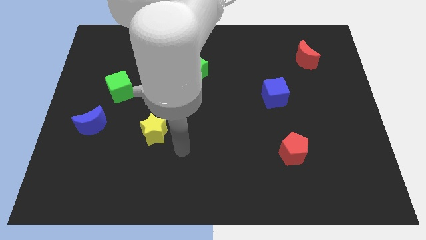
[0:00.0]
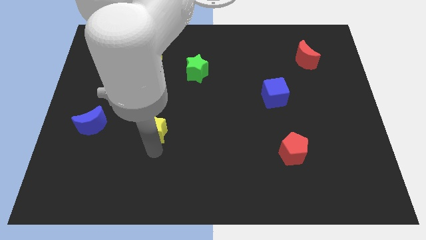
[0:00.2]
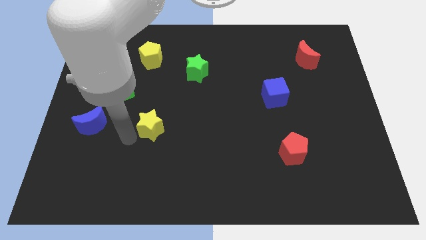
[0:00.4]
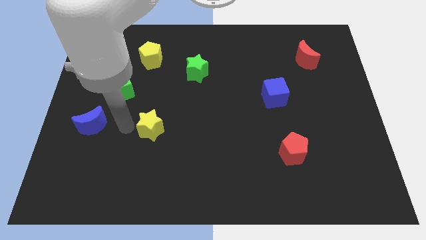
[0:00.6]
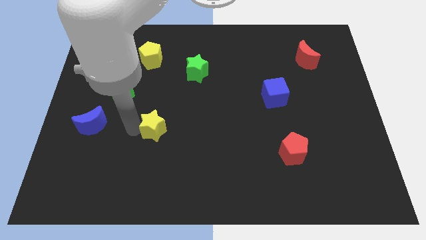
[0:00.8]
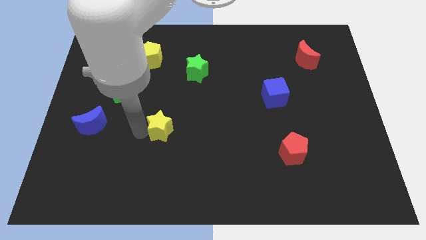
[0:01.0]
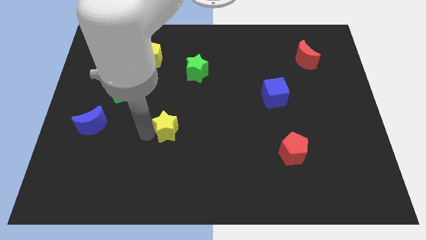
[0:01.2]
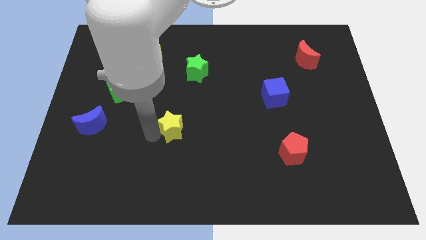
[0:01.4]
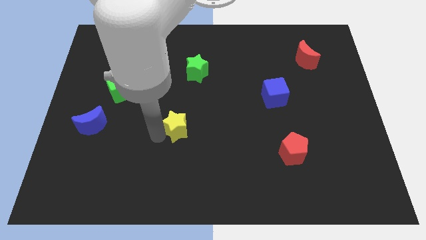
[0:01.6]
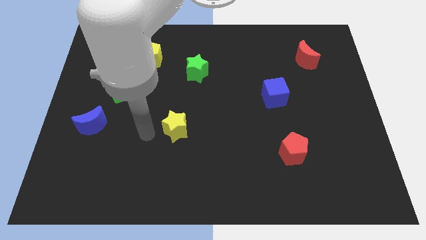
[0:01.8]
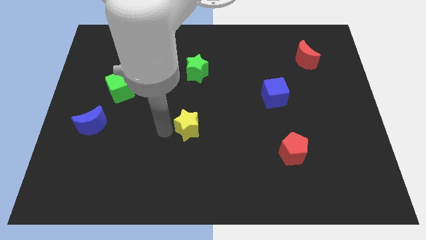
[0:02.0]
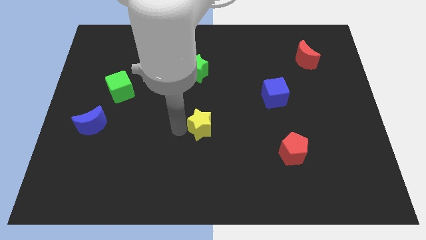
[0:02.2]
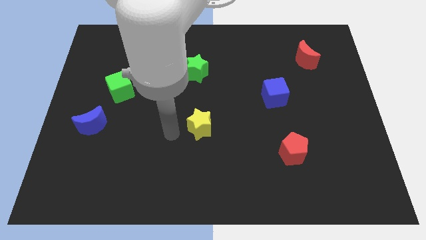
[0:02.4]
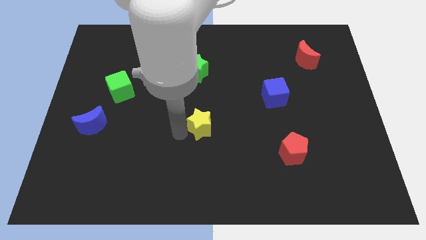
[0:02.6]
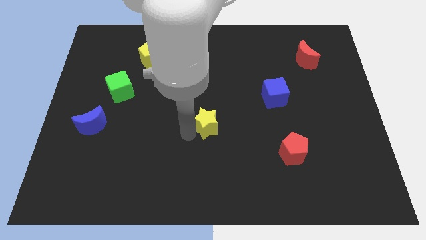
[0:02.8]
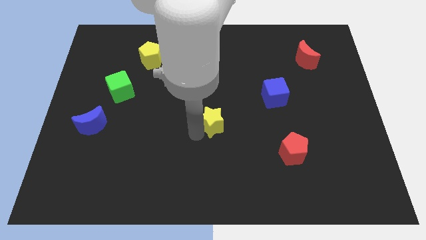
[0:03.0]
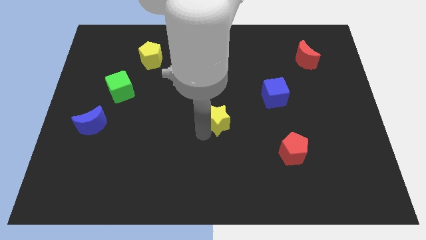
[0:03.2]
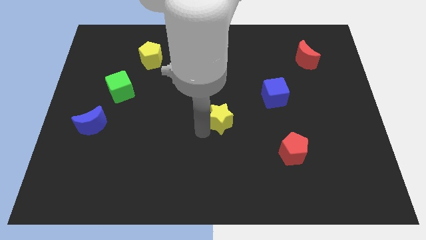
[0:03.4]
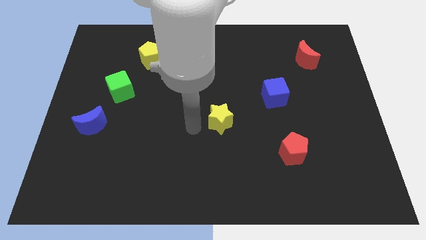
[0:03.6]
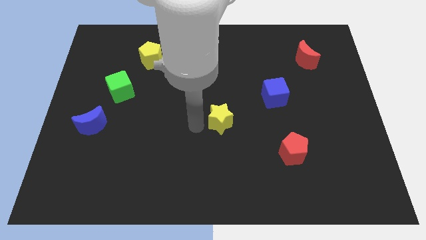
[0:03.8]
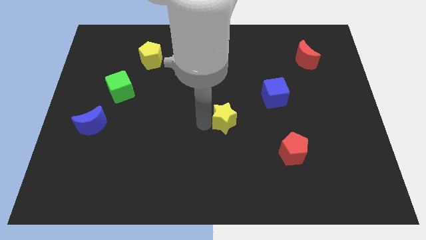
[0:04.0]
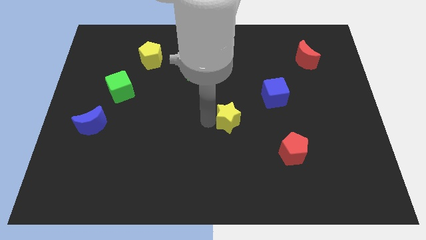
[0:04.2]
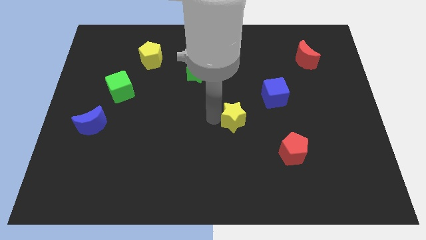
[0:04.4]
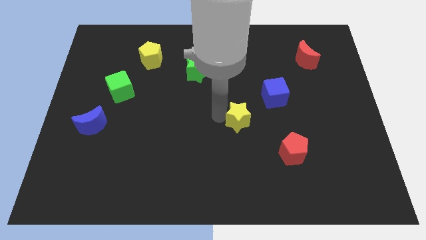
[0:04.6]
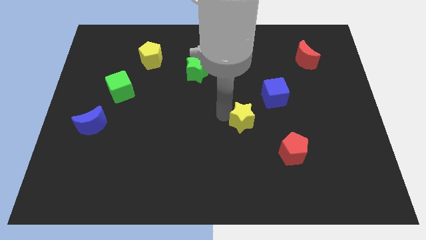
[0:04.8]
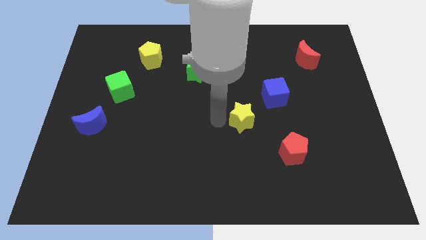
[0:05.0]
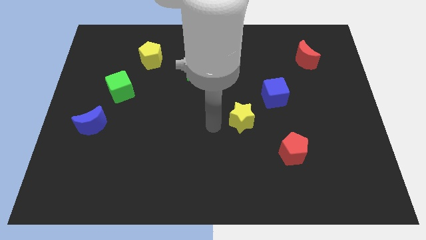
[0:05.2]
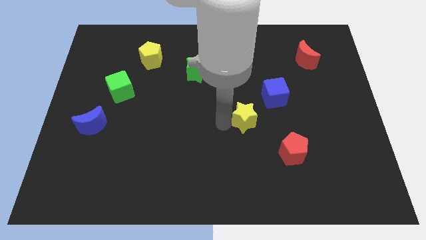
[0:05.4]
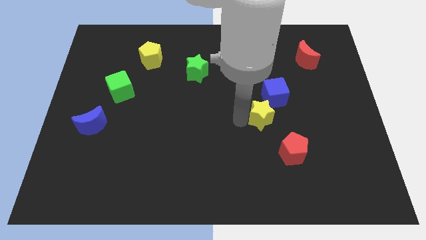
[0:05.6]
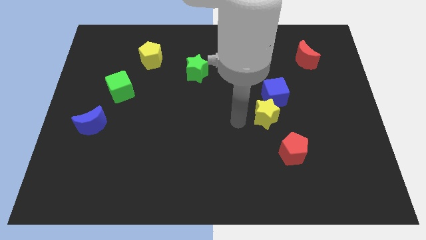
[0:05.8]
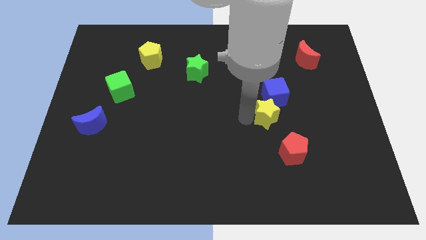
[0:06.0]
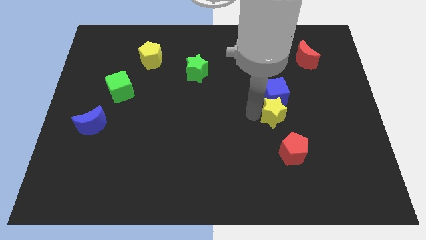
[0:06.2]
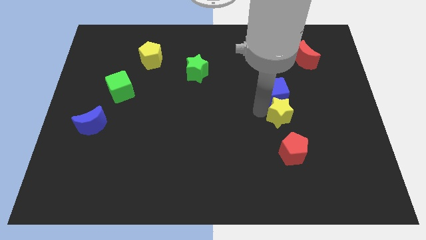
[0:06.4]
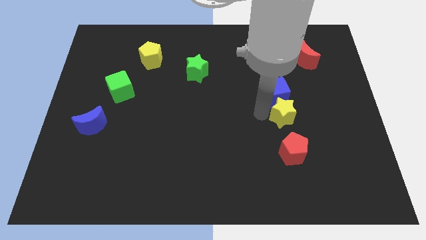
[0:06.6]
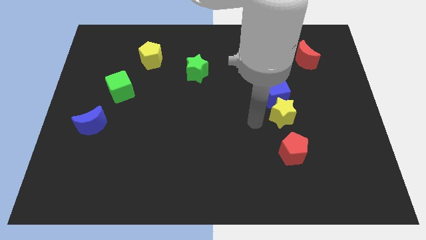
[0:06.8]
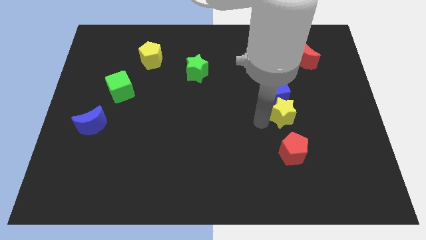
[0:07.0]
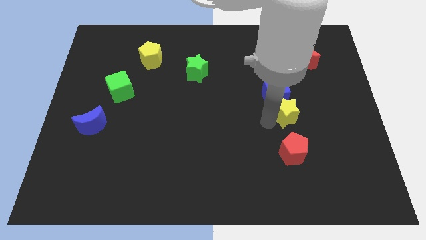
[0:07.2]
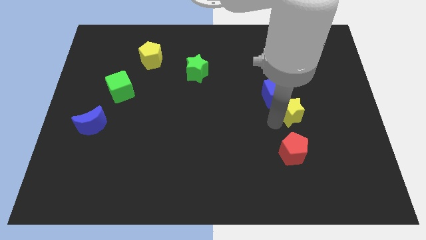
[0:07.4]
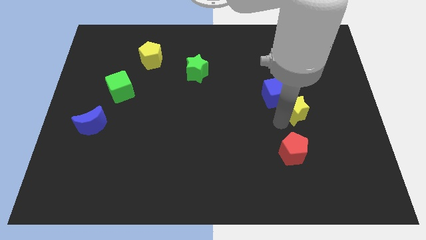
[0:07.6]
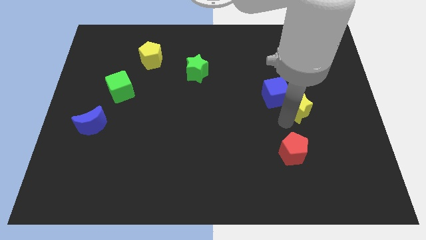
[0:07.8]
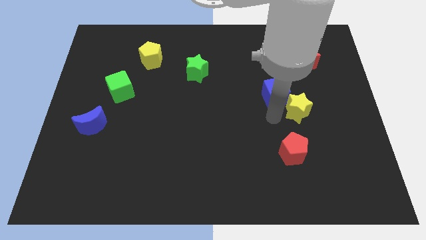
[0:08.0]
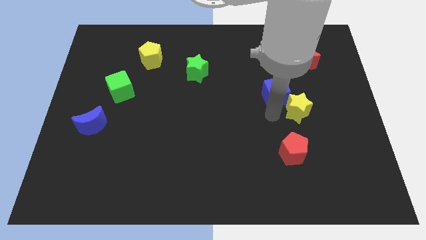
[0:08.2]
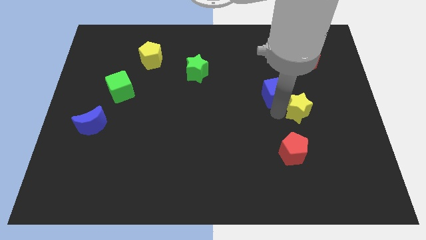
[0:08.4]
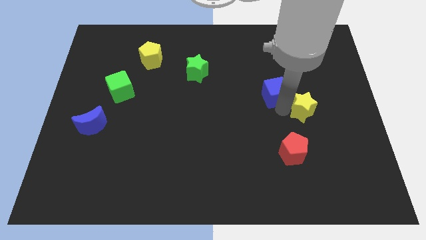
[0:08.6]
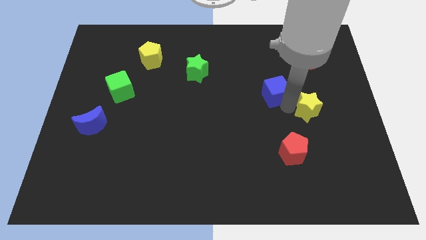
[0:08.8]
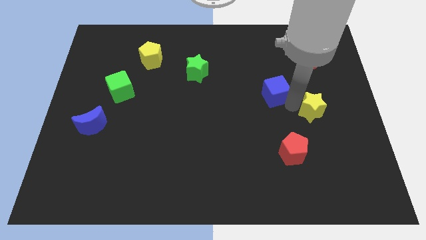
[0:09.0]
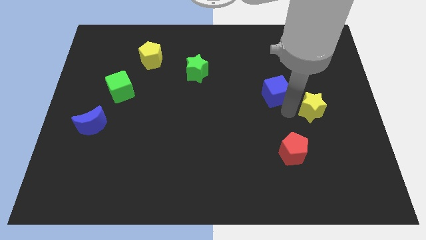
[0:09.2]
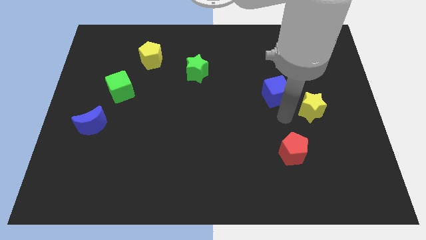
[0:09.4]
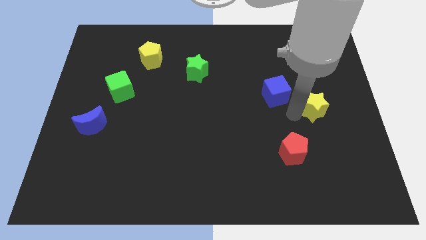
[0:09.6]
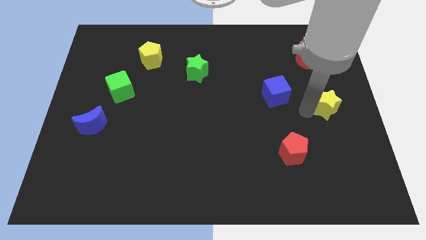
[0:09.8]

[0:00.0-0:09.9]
move the yellow star to the right side

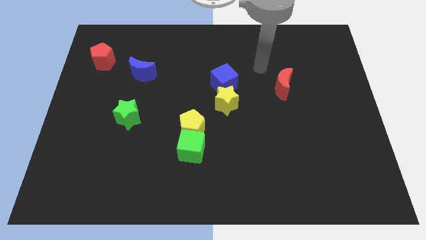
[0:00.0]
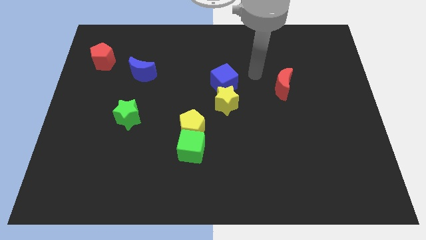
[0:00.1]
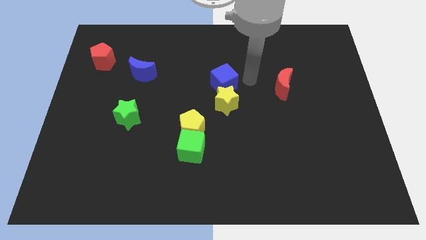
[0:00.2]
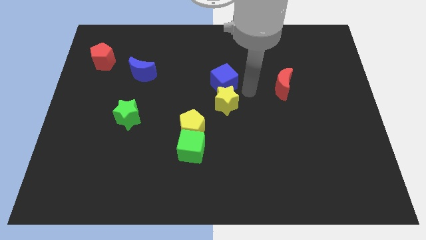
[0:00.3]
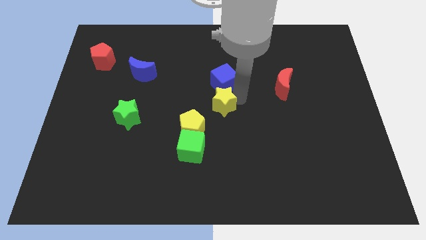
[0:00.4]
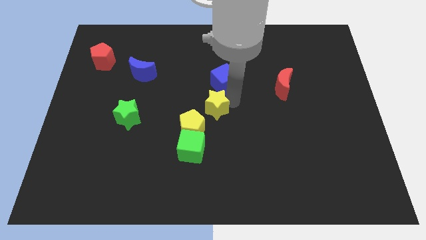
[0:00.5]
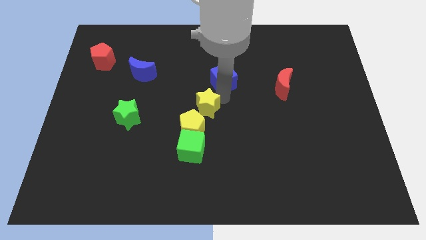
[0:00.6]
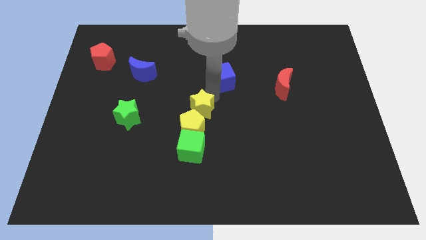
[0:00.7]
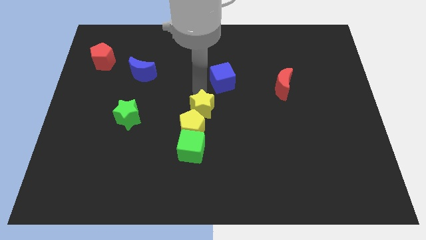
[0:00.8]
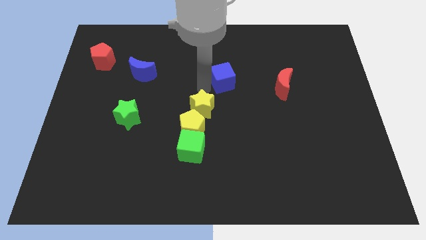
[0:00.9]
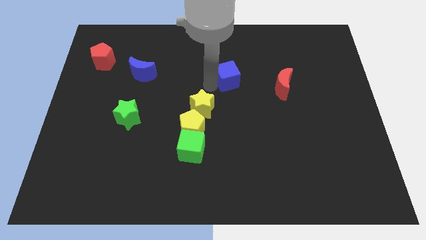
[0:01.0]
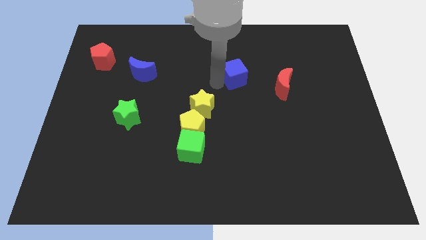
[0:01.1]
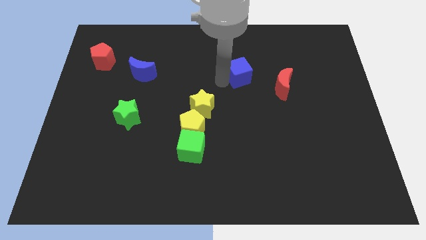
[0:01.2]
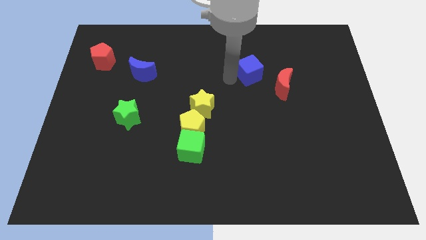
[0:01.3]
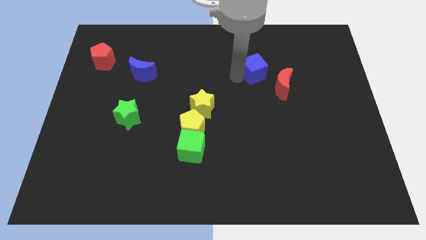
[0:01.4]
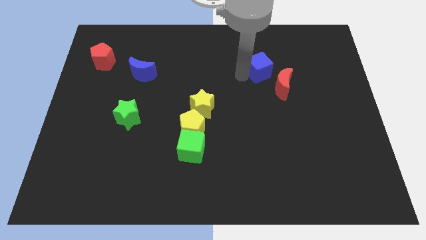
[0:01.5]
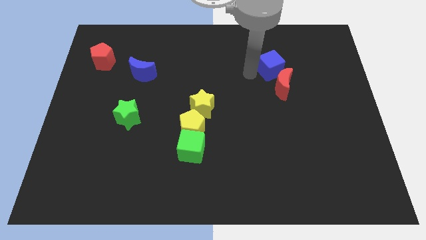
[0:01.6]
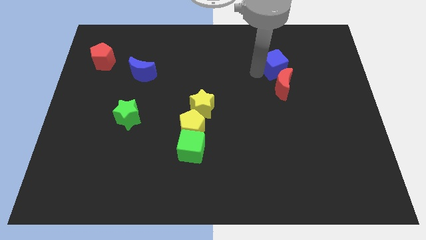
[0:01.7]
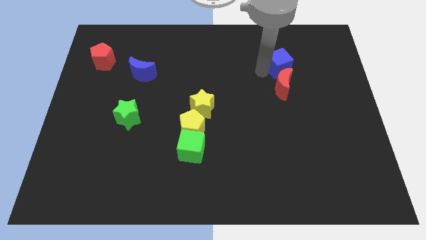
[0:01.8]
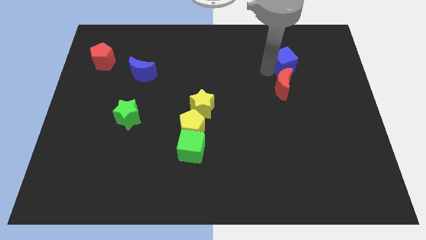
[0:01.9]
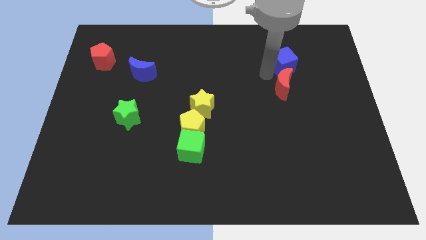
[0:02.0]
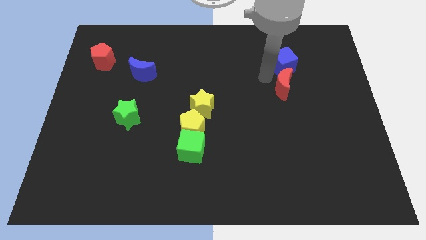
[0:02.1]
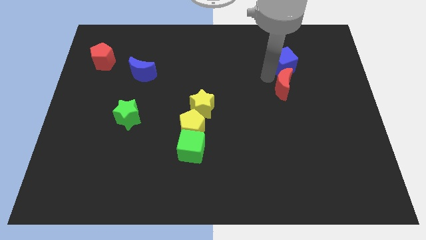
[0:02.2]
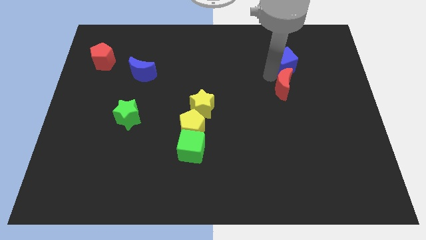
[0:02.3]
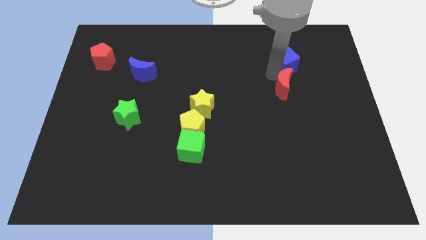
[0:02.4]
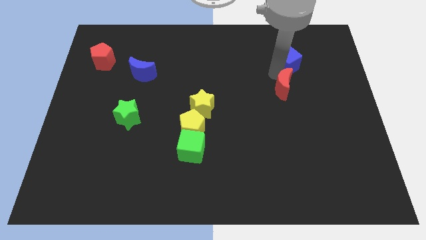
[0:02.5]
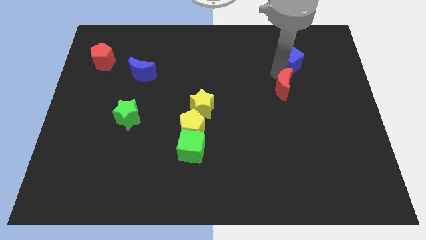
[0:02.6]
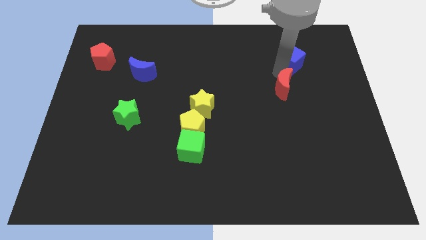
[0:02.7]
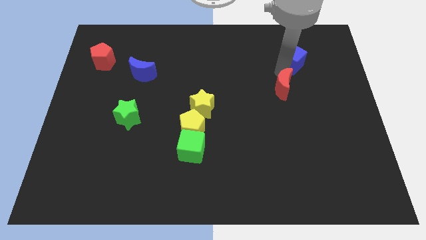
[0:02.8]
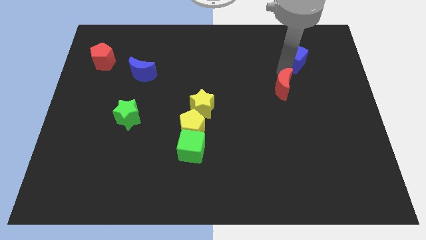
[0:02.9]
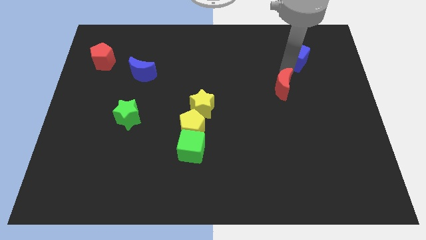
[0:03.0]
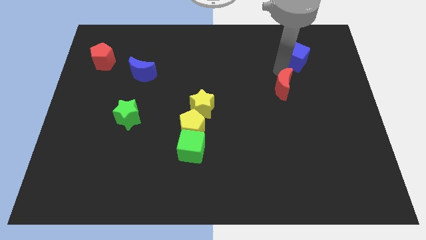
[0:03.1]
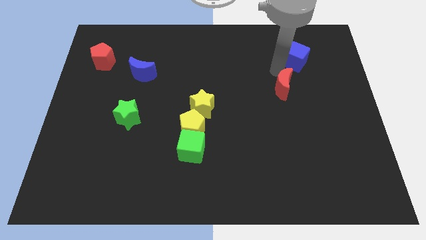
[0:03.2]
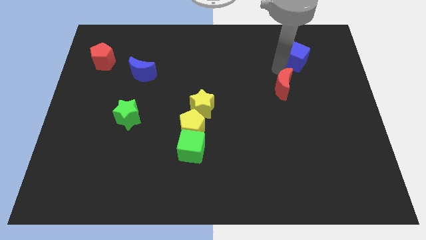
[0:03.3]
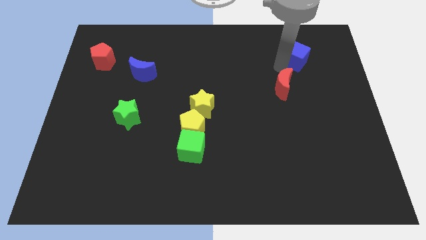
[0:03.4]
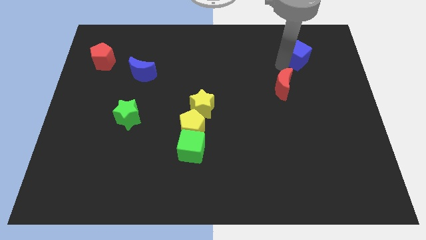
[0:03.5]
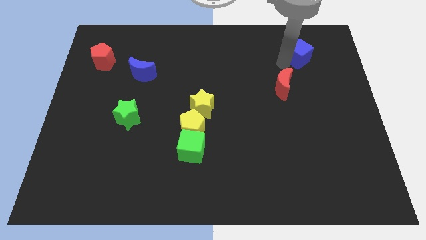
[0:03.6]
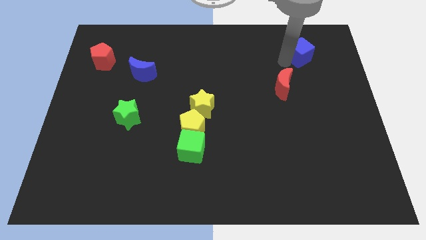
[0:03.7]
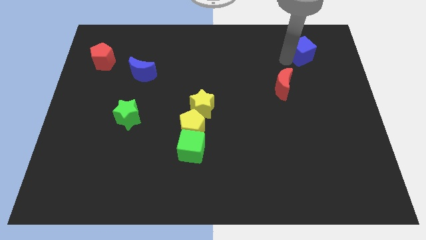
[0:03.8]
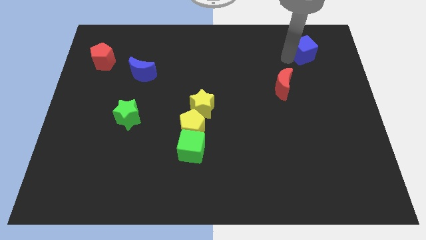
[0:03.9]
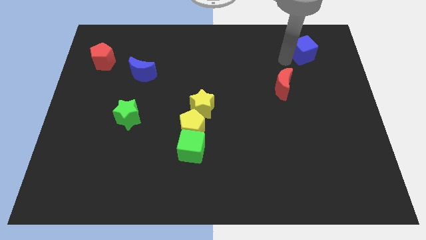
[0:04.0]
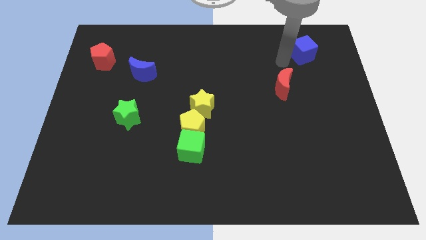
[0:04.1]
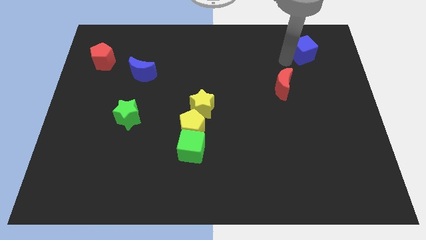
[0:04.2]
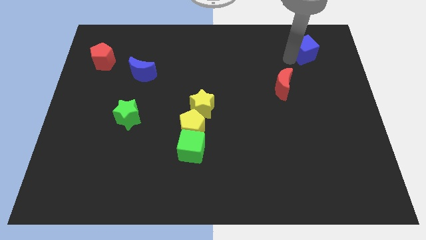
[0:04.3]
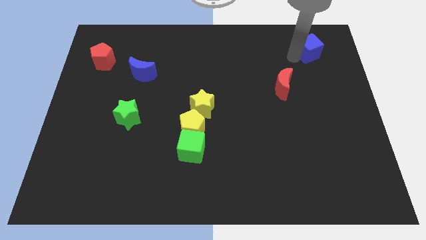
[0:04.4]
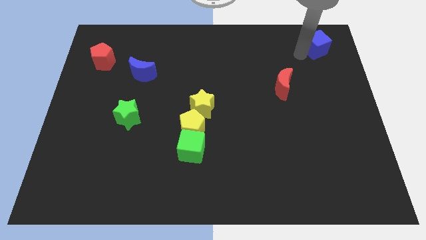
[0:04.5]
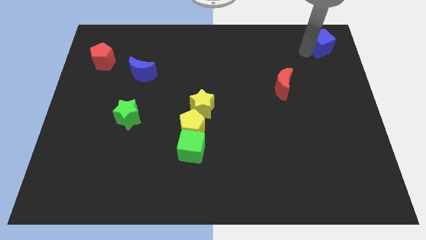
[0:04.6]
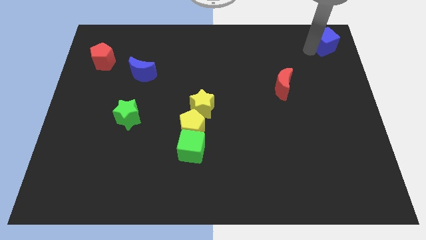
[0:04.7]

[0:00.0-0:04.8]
push the blue cube to the top right of the board
